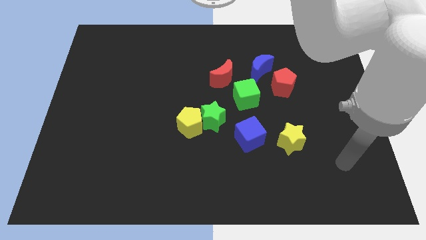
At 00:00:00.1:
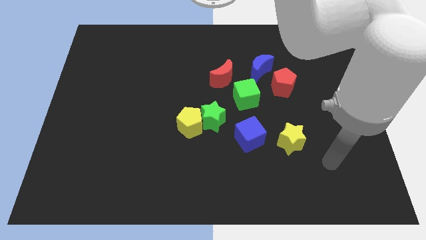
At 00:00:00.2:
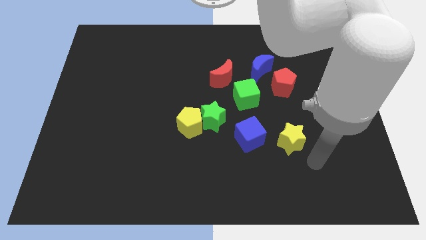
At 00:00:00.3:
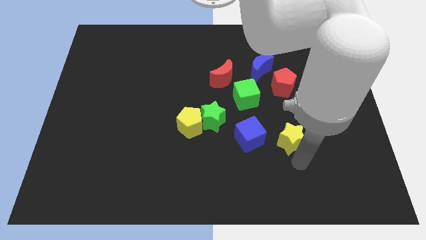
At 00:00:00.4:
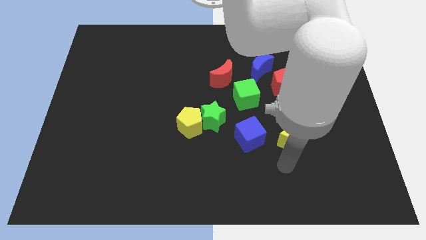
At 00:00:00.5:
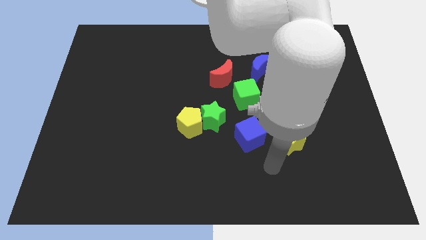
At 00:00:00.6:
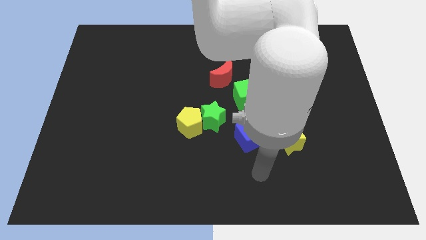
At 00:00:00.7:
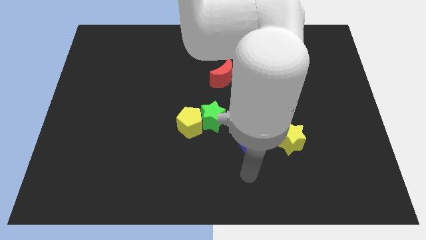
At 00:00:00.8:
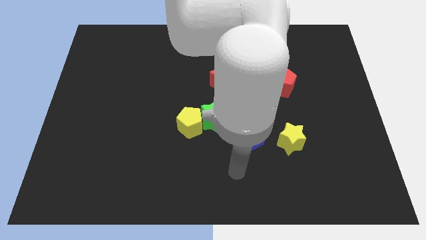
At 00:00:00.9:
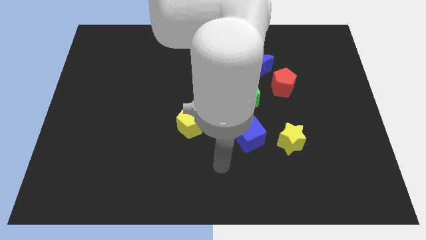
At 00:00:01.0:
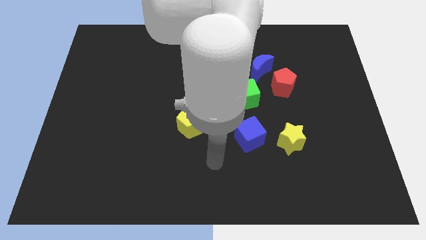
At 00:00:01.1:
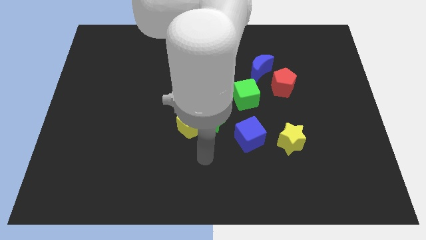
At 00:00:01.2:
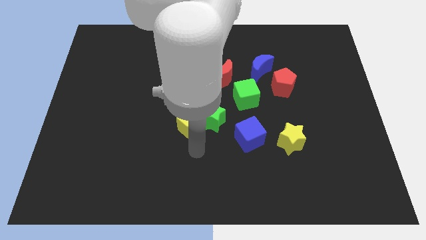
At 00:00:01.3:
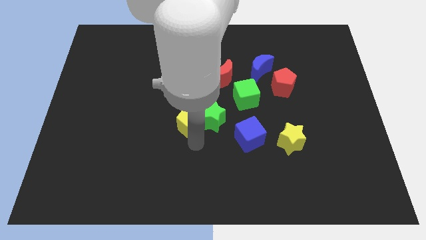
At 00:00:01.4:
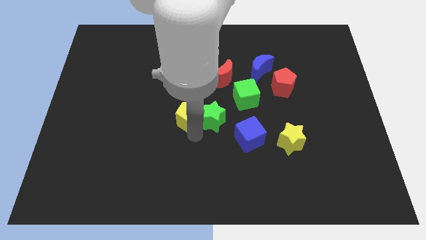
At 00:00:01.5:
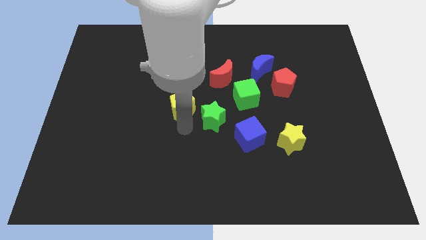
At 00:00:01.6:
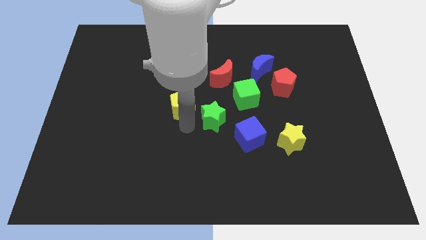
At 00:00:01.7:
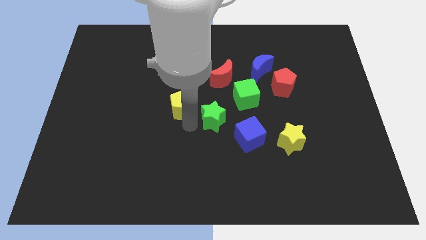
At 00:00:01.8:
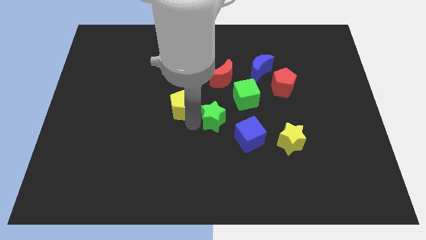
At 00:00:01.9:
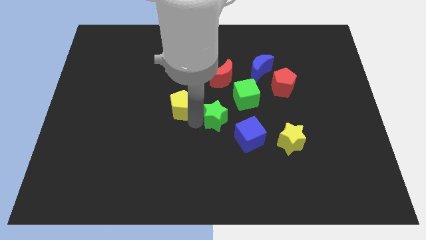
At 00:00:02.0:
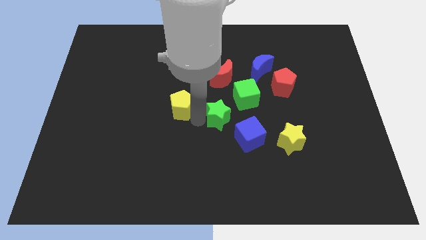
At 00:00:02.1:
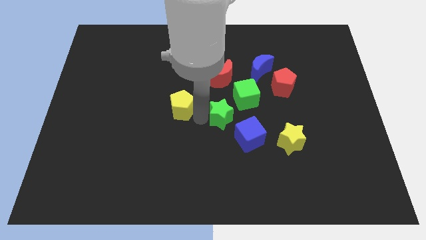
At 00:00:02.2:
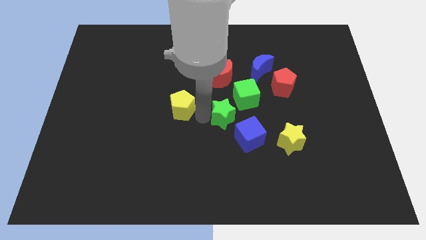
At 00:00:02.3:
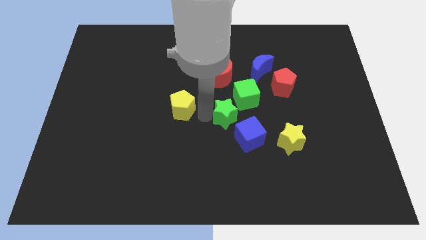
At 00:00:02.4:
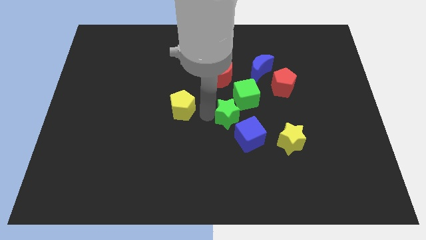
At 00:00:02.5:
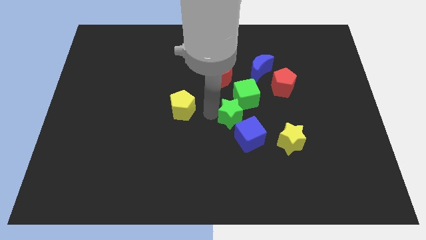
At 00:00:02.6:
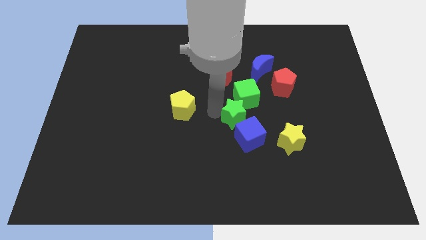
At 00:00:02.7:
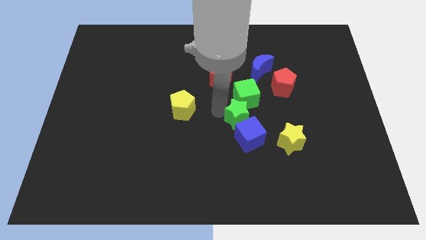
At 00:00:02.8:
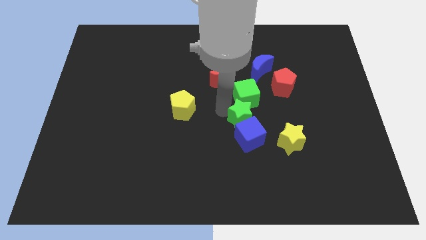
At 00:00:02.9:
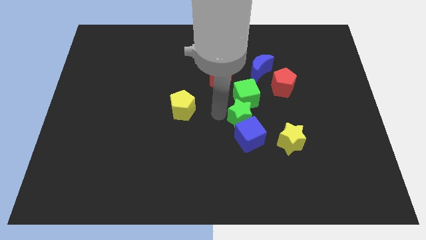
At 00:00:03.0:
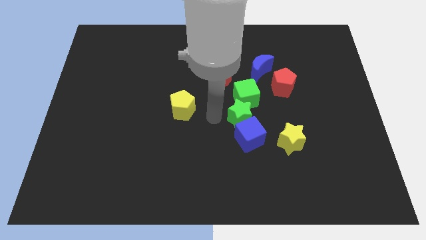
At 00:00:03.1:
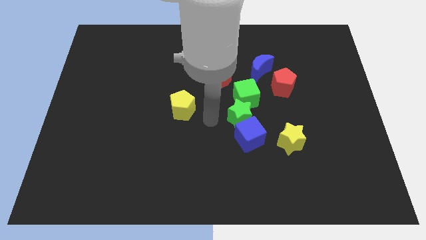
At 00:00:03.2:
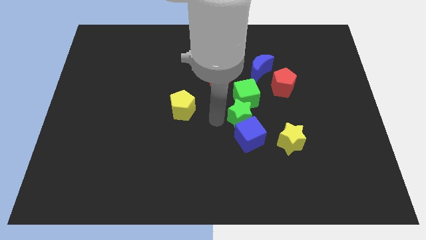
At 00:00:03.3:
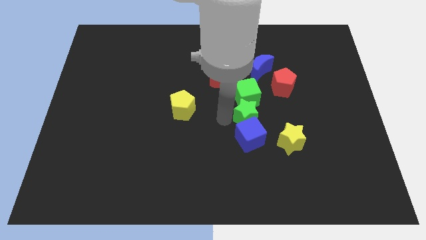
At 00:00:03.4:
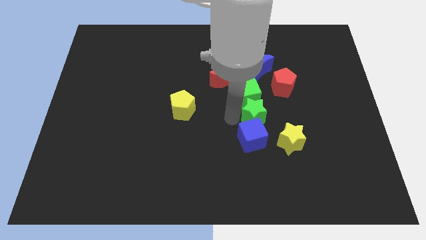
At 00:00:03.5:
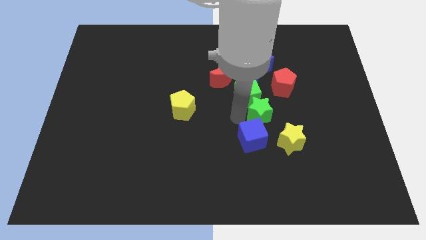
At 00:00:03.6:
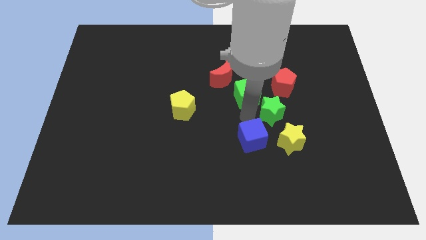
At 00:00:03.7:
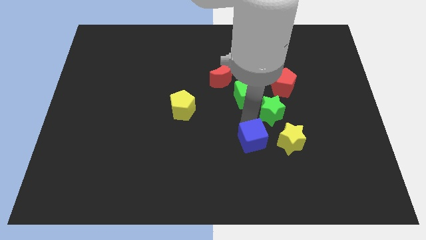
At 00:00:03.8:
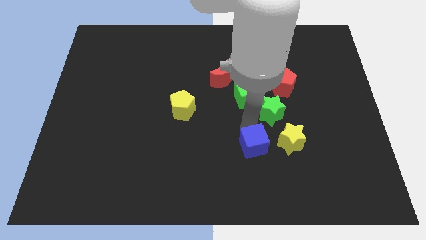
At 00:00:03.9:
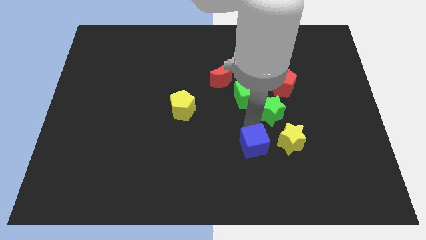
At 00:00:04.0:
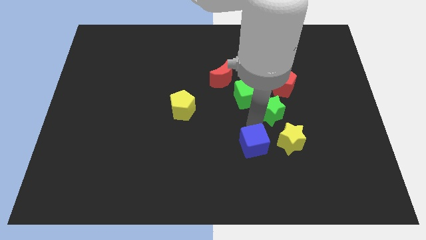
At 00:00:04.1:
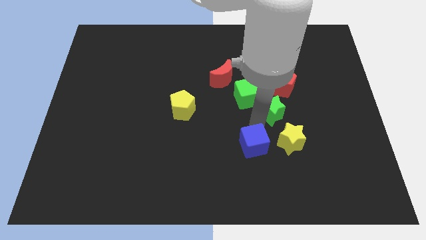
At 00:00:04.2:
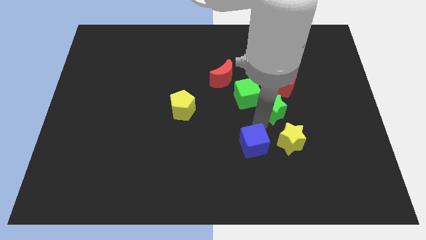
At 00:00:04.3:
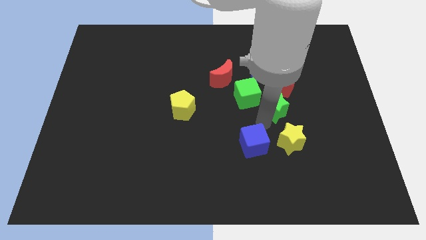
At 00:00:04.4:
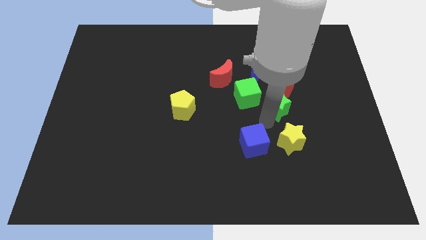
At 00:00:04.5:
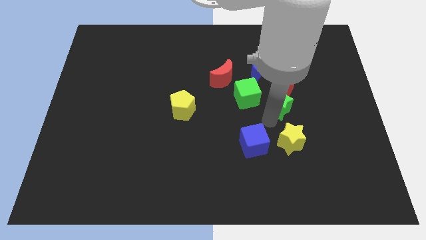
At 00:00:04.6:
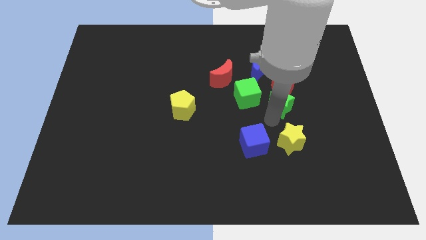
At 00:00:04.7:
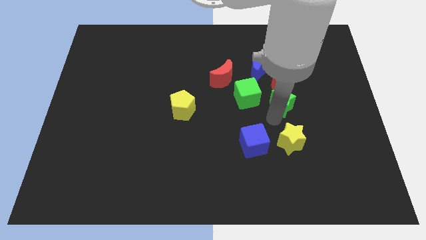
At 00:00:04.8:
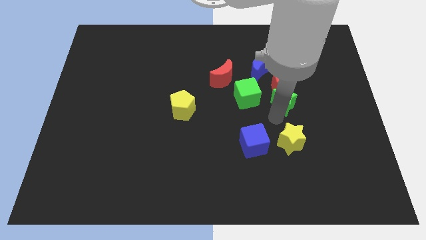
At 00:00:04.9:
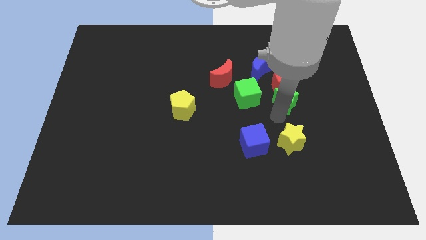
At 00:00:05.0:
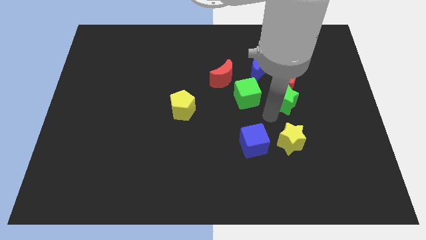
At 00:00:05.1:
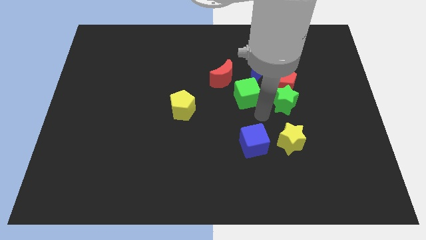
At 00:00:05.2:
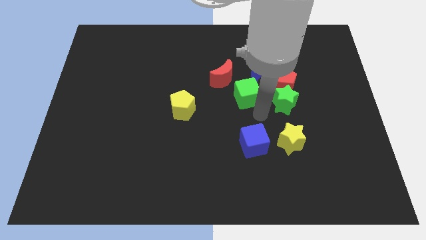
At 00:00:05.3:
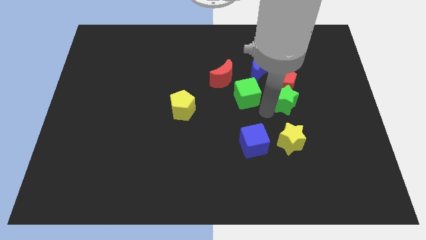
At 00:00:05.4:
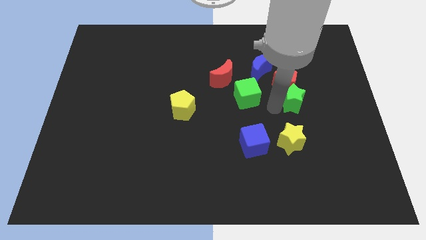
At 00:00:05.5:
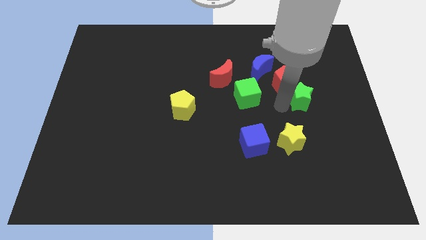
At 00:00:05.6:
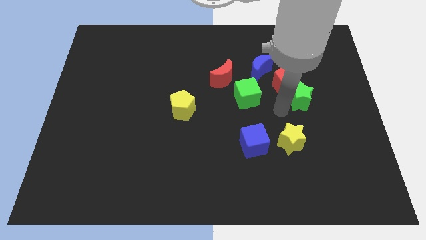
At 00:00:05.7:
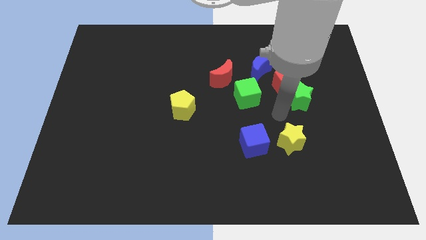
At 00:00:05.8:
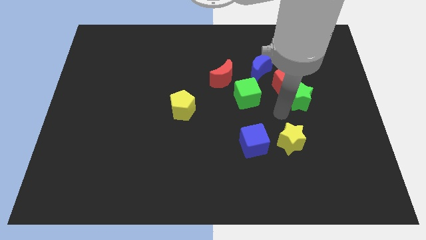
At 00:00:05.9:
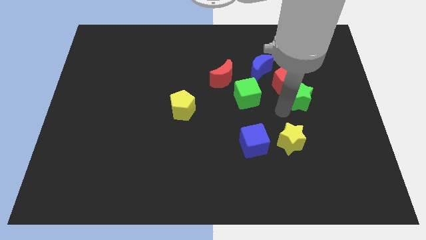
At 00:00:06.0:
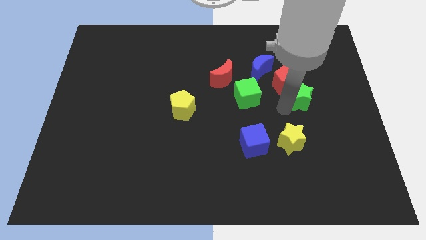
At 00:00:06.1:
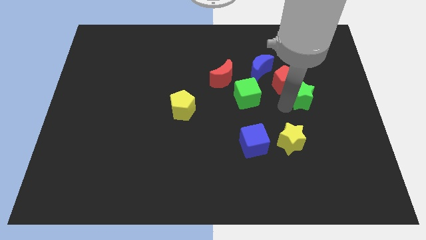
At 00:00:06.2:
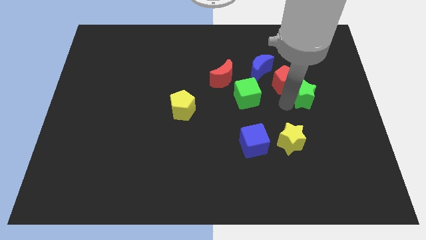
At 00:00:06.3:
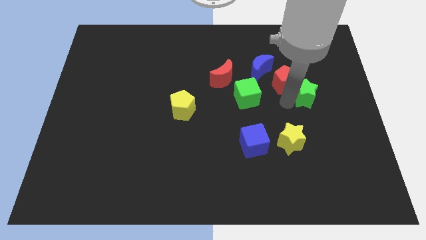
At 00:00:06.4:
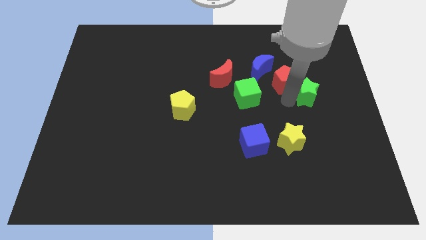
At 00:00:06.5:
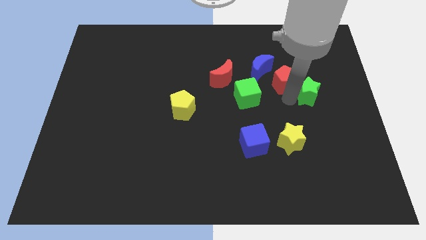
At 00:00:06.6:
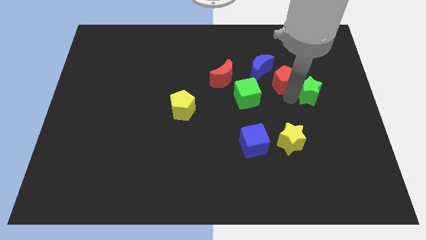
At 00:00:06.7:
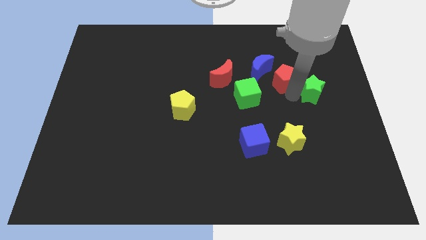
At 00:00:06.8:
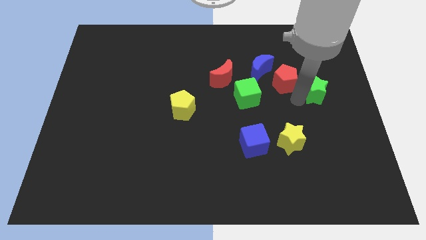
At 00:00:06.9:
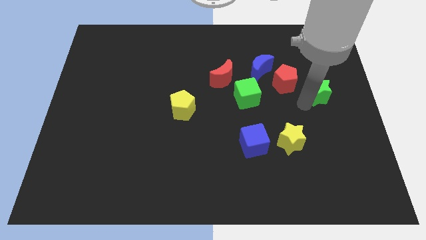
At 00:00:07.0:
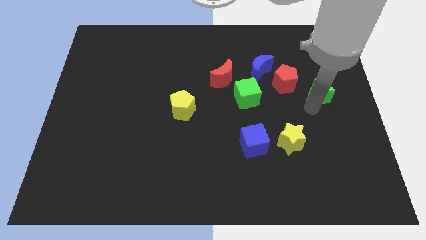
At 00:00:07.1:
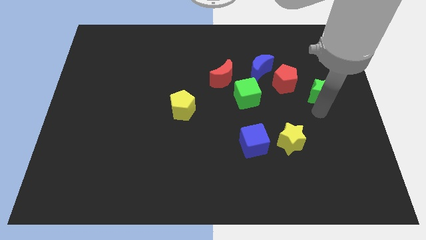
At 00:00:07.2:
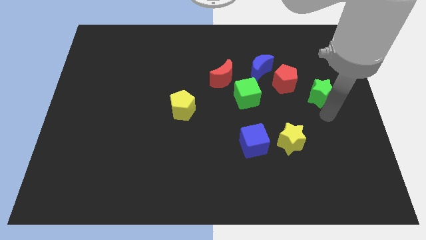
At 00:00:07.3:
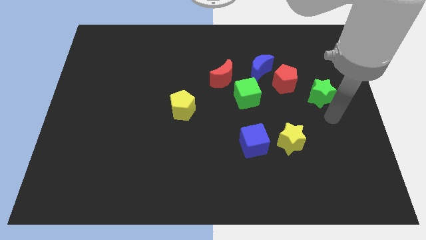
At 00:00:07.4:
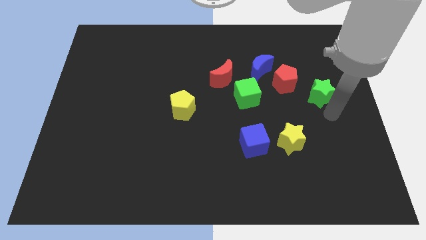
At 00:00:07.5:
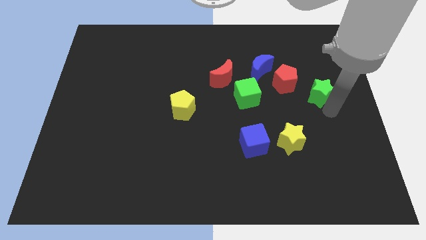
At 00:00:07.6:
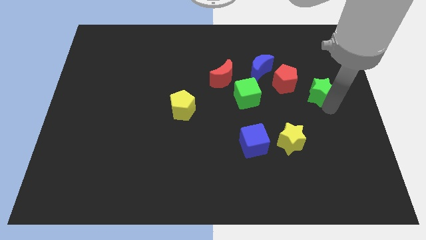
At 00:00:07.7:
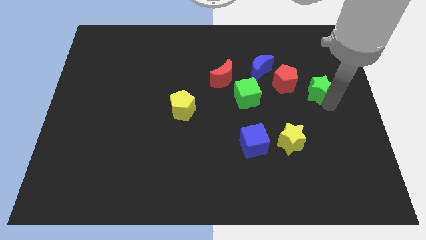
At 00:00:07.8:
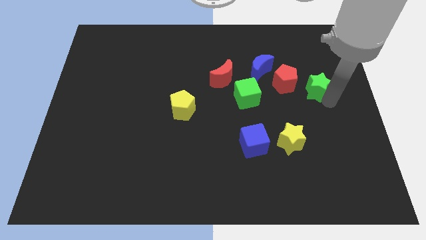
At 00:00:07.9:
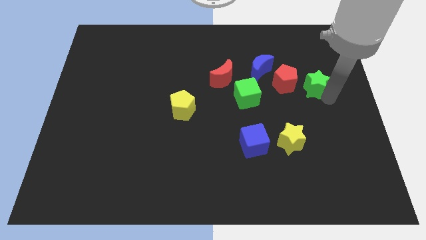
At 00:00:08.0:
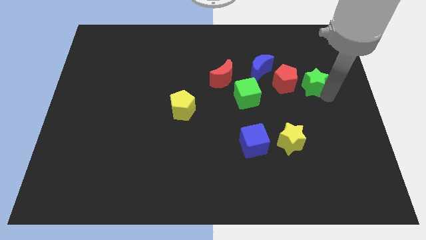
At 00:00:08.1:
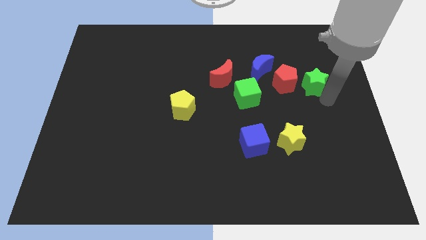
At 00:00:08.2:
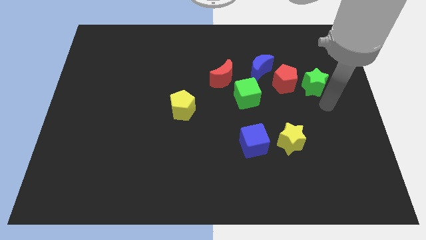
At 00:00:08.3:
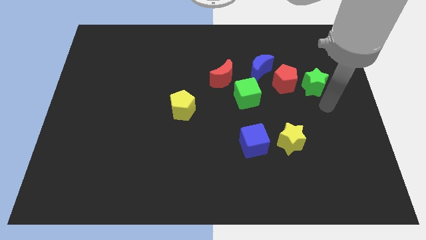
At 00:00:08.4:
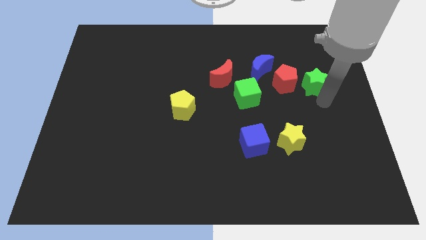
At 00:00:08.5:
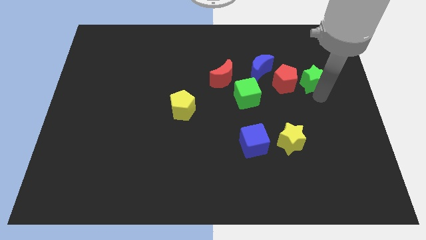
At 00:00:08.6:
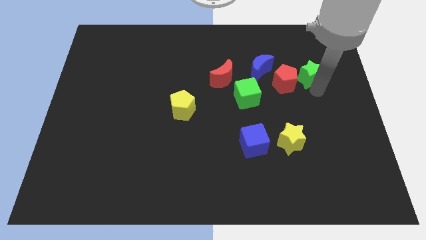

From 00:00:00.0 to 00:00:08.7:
slide the green star to the top right side of the red pentagon
